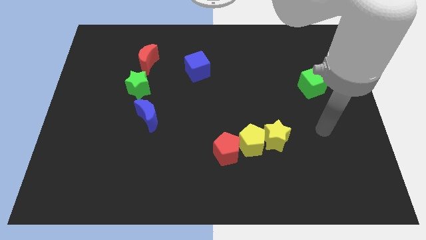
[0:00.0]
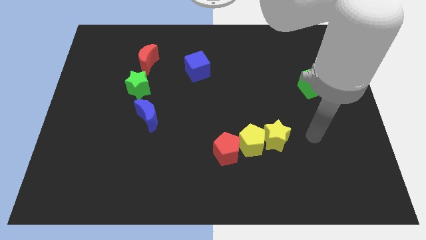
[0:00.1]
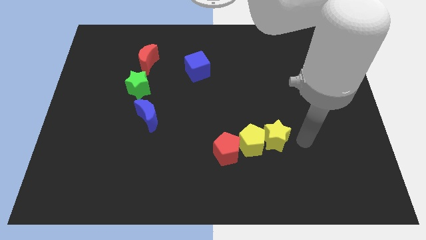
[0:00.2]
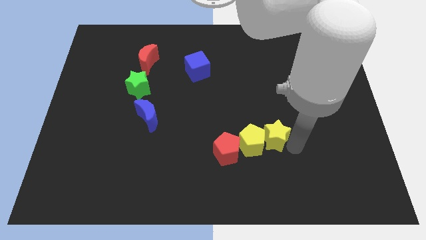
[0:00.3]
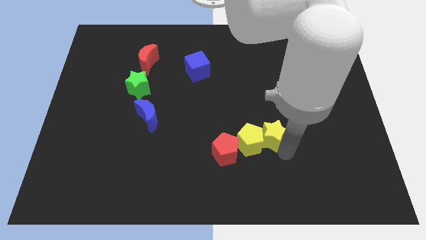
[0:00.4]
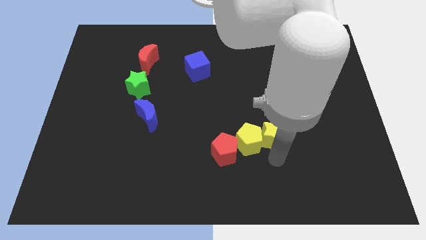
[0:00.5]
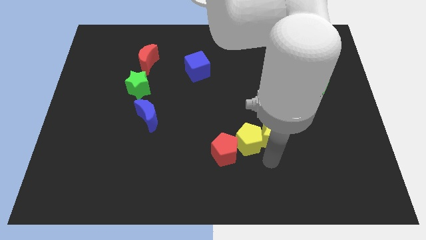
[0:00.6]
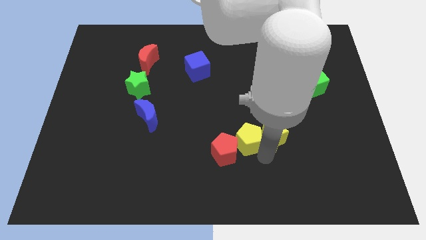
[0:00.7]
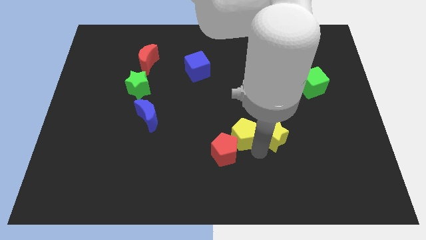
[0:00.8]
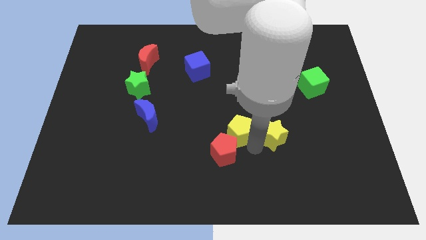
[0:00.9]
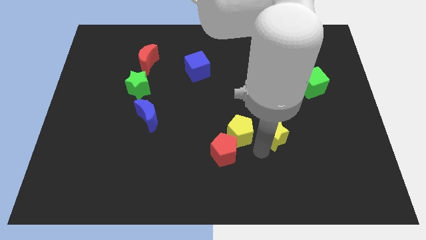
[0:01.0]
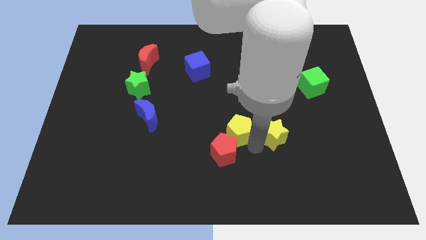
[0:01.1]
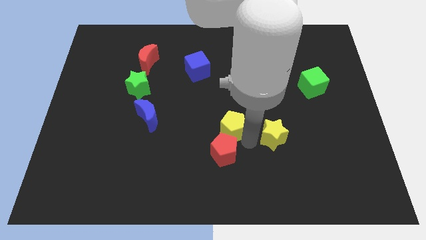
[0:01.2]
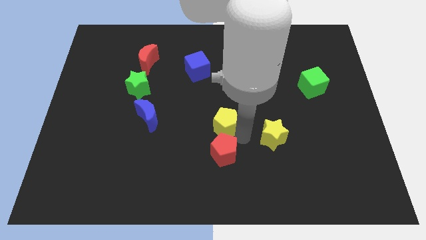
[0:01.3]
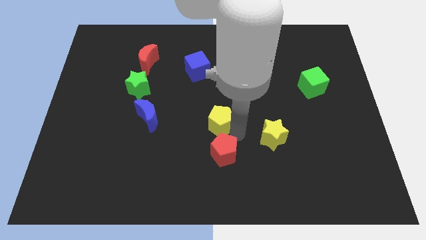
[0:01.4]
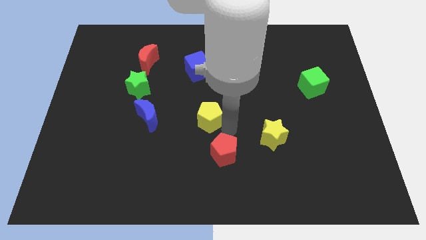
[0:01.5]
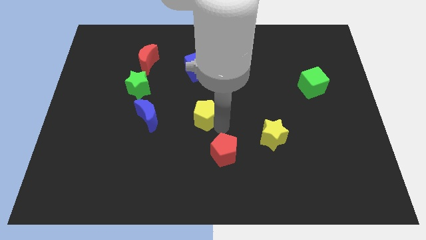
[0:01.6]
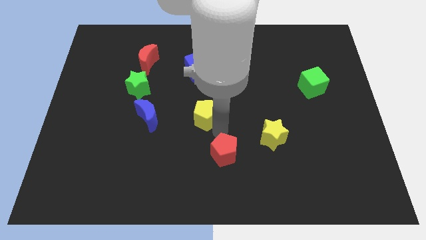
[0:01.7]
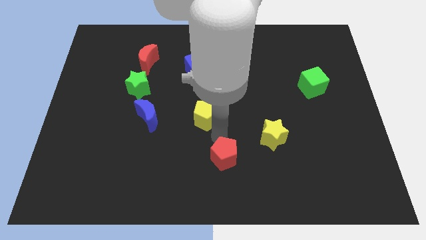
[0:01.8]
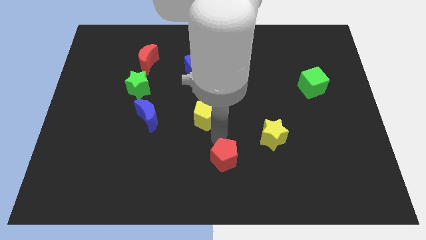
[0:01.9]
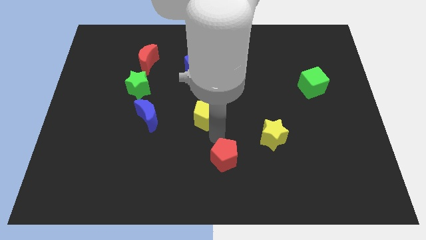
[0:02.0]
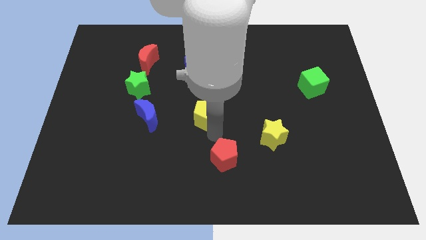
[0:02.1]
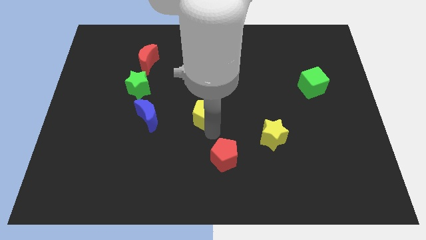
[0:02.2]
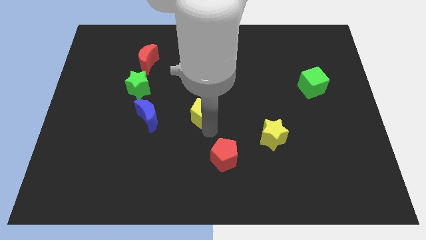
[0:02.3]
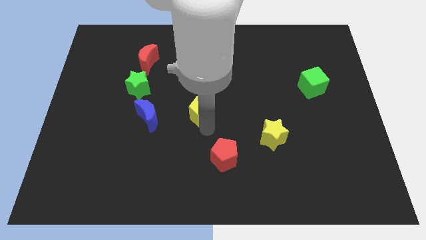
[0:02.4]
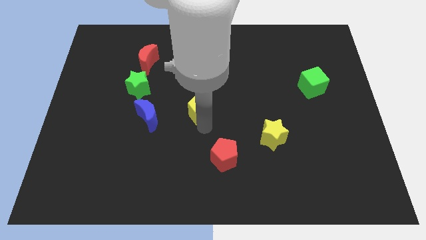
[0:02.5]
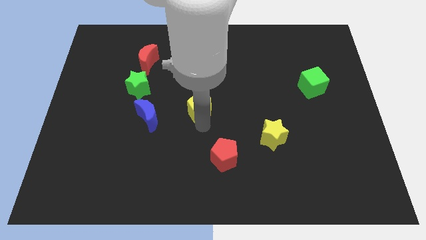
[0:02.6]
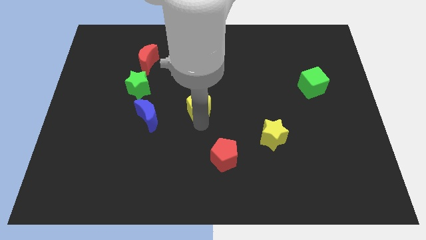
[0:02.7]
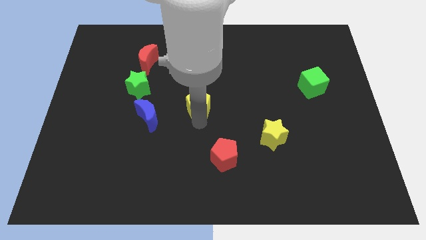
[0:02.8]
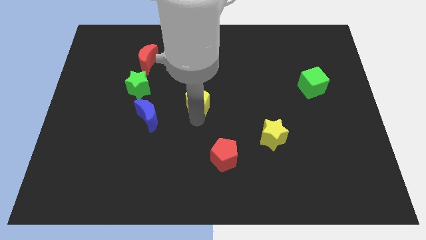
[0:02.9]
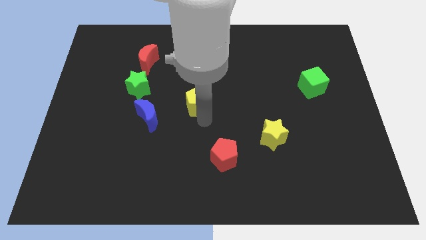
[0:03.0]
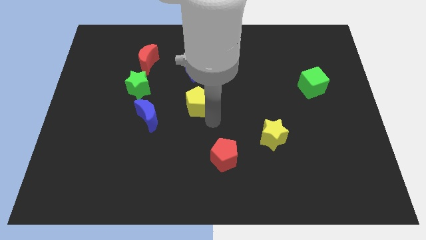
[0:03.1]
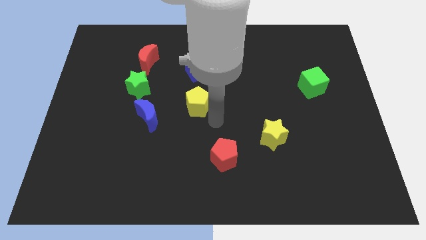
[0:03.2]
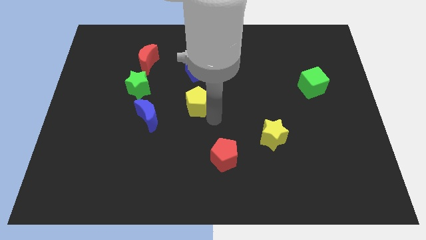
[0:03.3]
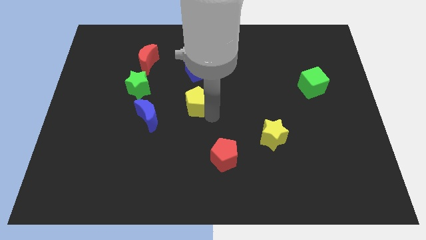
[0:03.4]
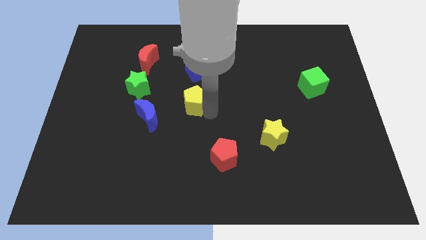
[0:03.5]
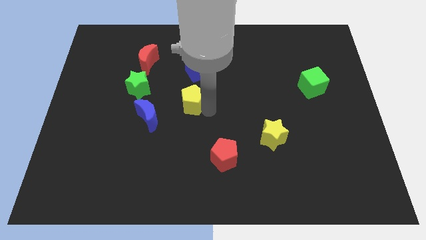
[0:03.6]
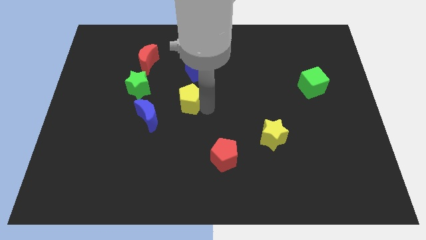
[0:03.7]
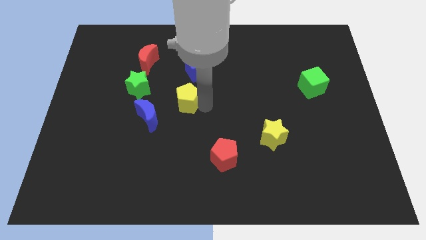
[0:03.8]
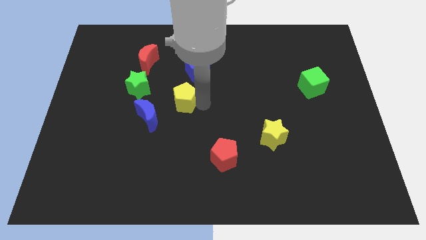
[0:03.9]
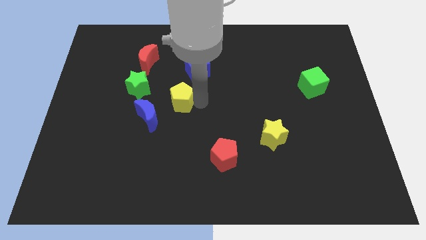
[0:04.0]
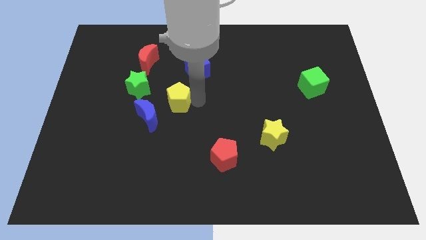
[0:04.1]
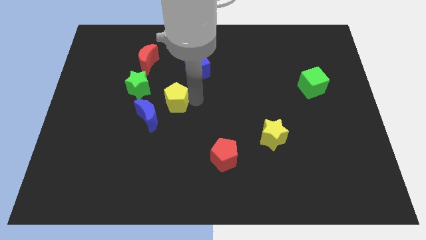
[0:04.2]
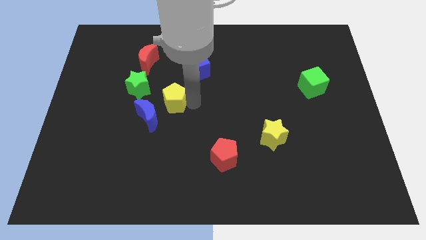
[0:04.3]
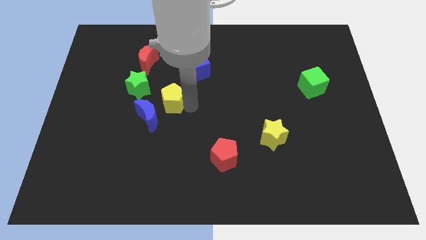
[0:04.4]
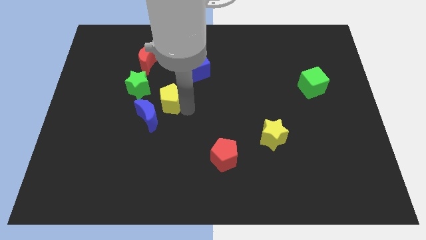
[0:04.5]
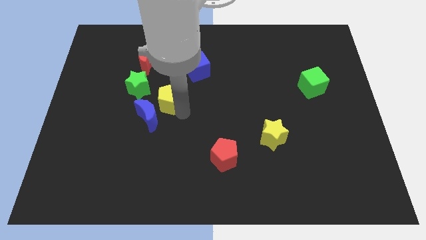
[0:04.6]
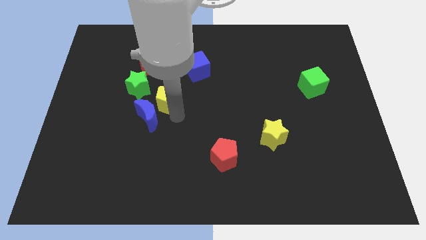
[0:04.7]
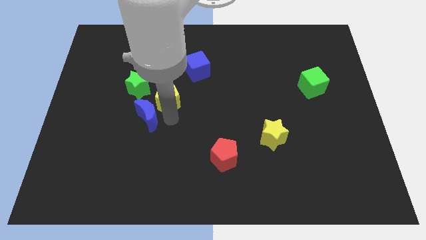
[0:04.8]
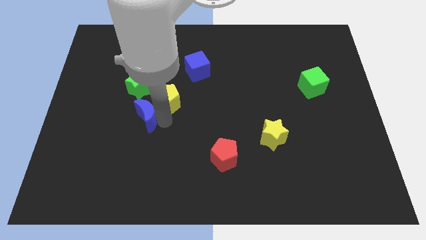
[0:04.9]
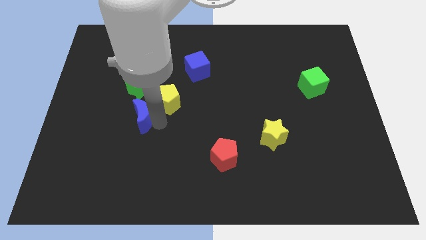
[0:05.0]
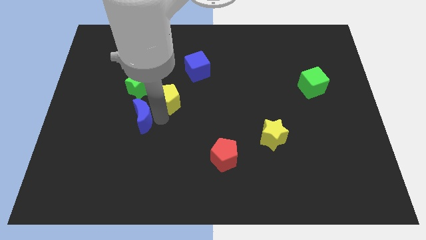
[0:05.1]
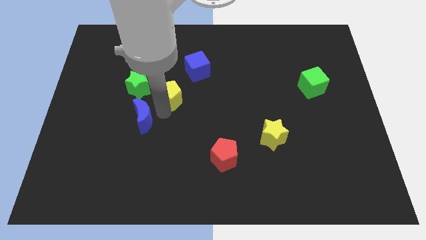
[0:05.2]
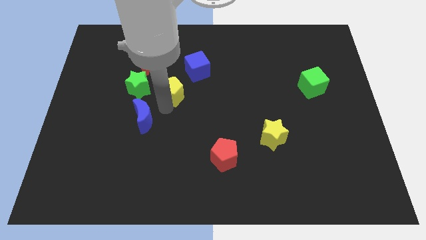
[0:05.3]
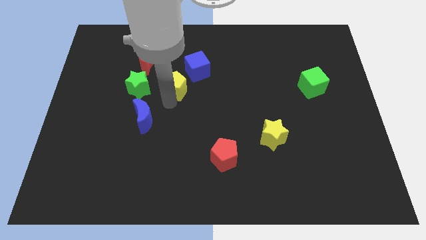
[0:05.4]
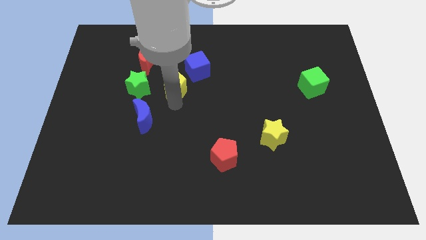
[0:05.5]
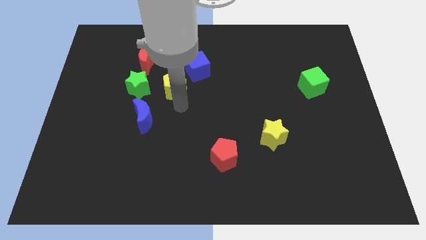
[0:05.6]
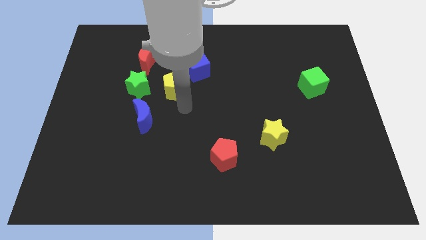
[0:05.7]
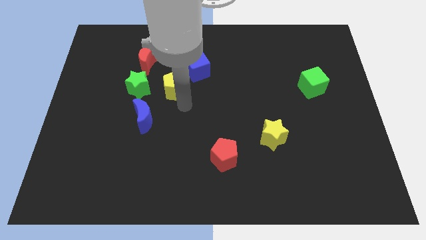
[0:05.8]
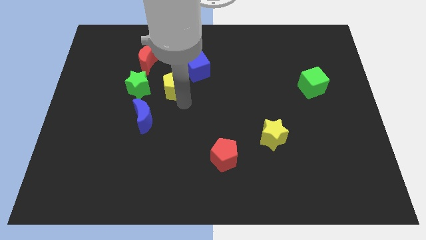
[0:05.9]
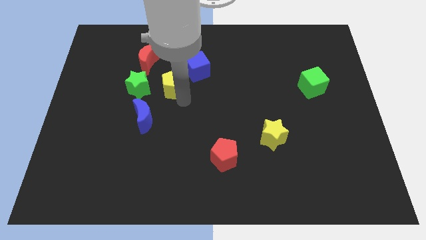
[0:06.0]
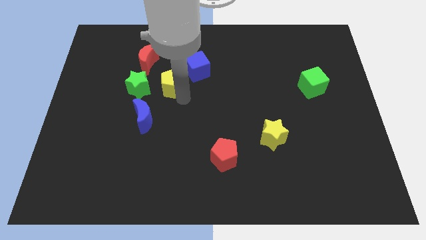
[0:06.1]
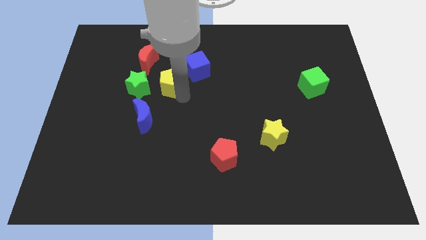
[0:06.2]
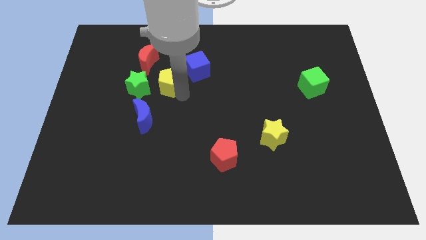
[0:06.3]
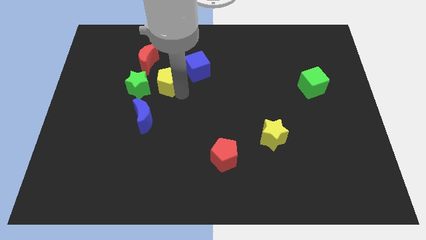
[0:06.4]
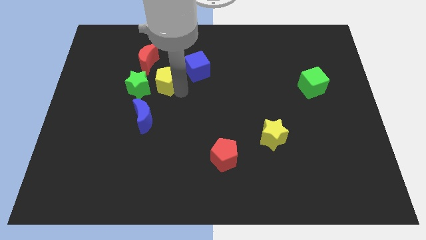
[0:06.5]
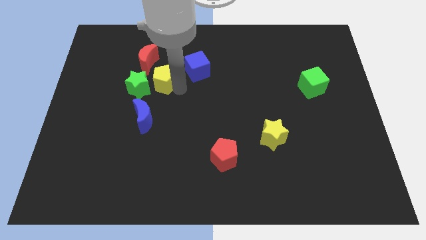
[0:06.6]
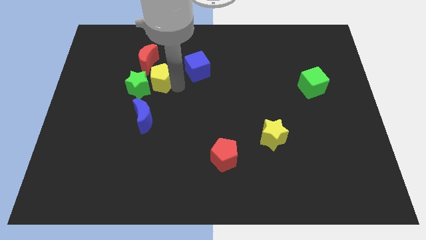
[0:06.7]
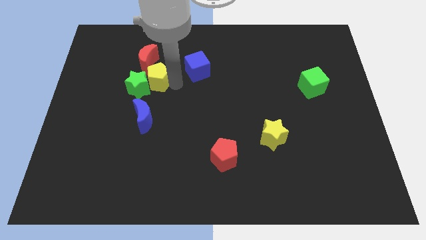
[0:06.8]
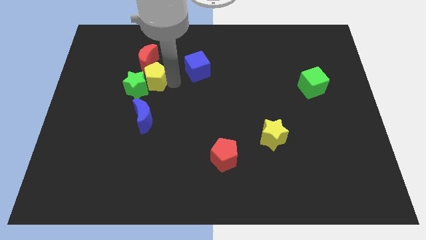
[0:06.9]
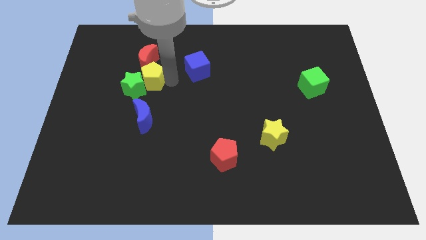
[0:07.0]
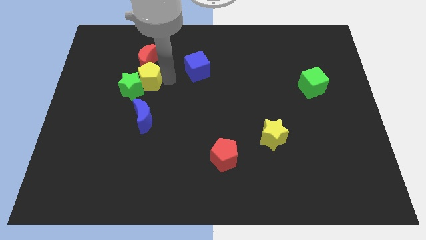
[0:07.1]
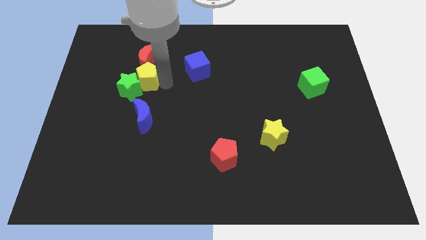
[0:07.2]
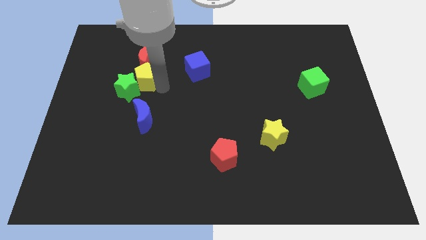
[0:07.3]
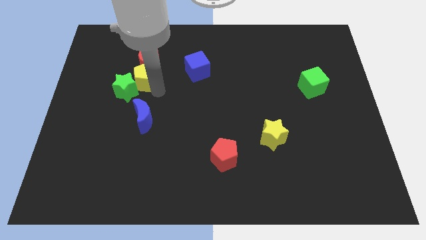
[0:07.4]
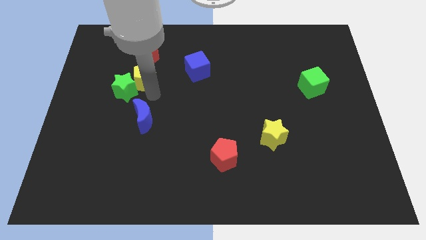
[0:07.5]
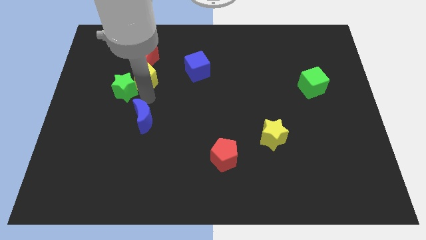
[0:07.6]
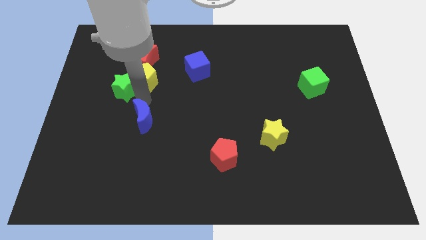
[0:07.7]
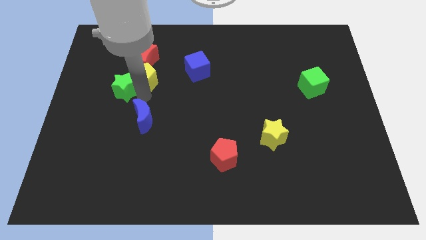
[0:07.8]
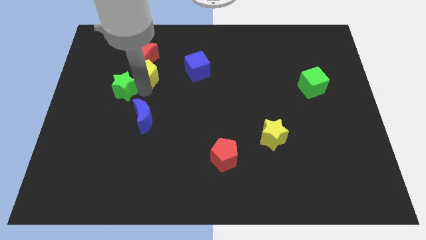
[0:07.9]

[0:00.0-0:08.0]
slide the yellow pentagon towards the red moon
